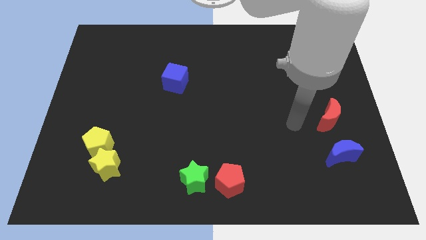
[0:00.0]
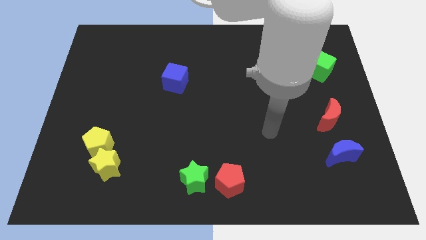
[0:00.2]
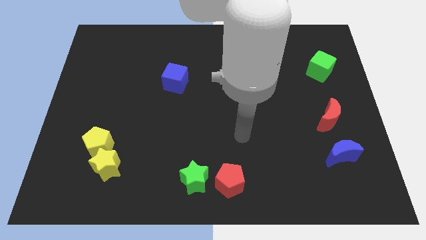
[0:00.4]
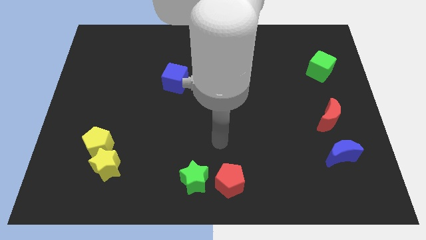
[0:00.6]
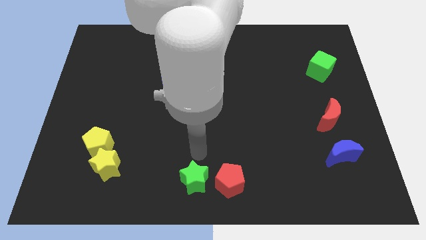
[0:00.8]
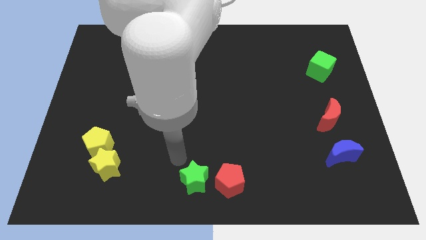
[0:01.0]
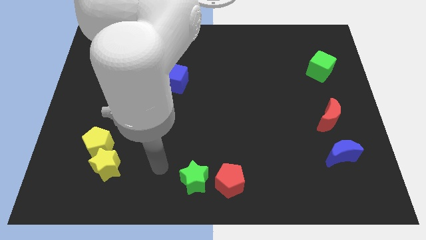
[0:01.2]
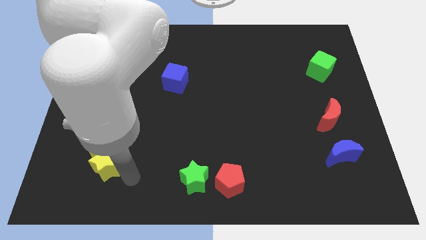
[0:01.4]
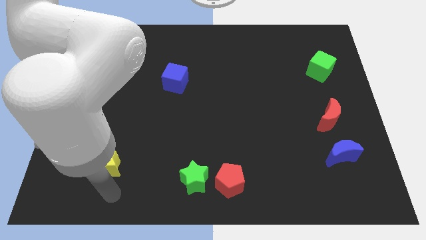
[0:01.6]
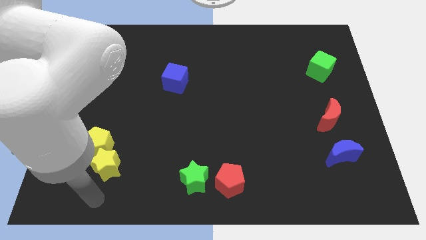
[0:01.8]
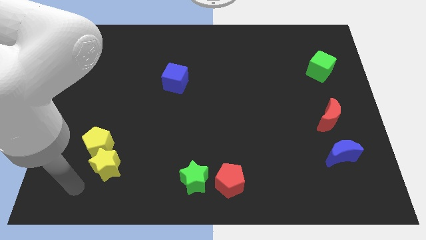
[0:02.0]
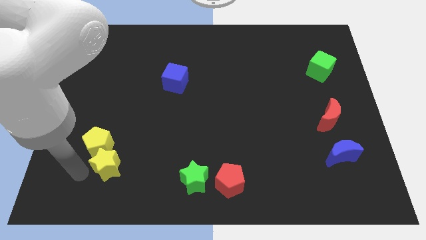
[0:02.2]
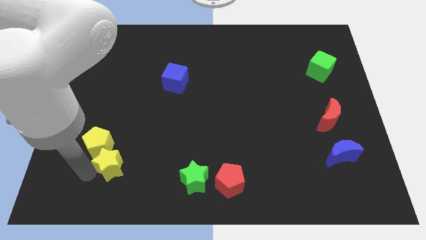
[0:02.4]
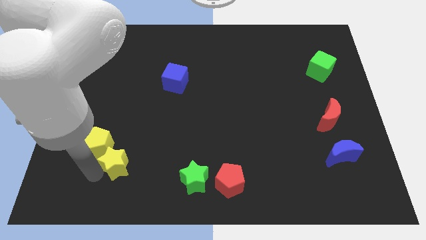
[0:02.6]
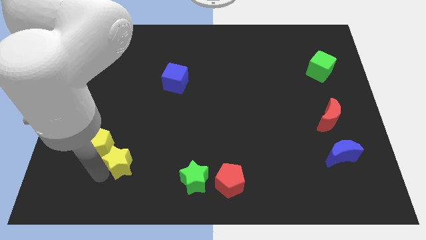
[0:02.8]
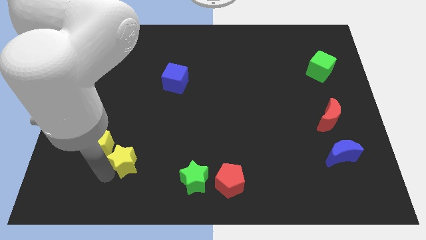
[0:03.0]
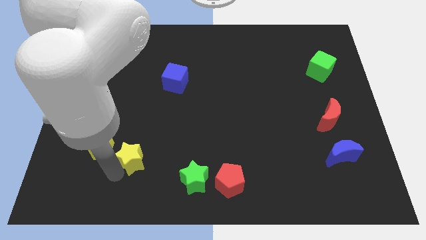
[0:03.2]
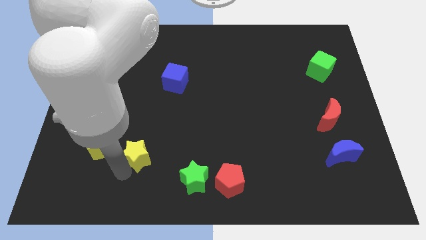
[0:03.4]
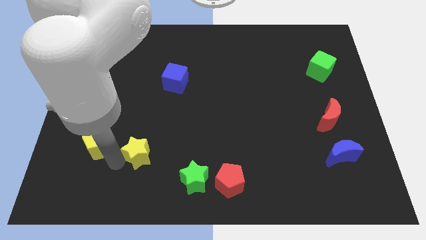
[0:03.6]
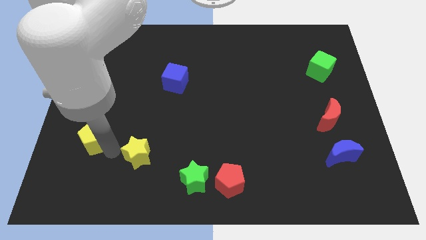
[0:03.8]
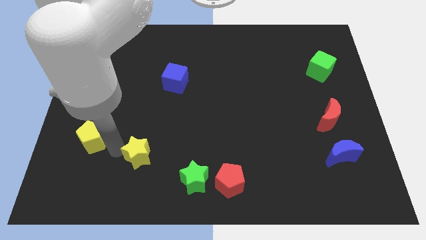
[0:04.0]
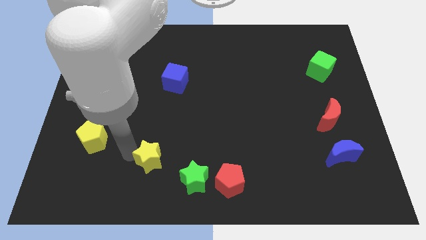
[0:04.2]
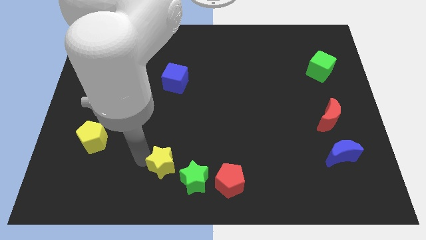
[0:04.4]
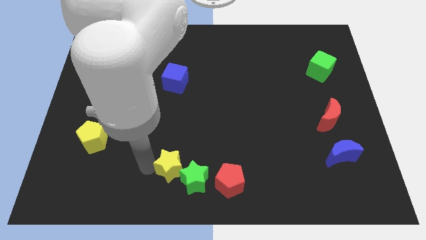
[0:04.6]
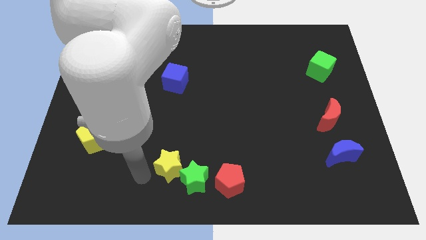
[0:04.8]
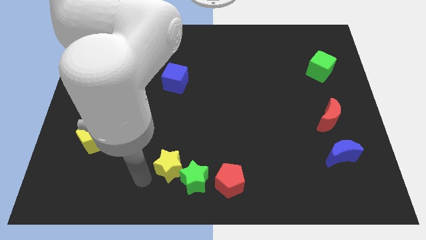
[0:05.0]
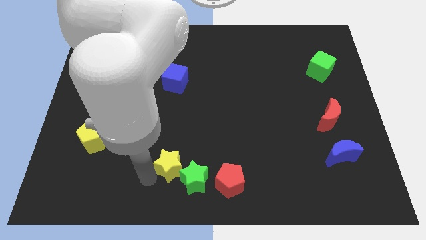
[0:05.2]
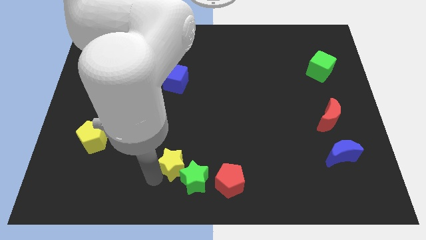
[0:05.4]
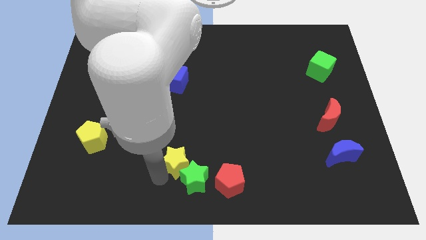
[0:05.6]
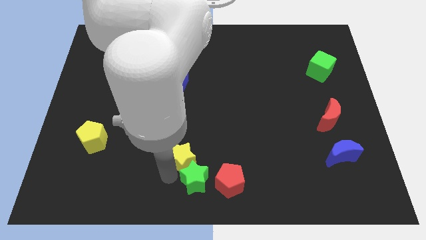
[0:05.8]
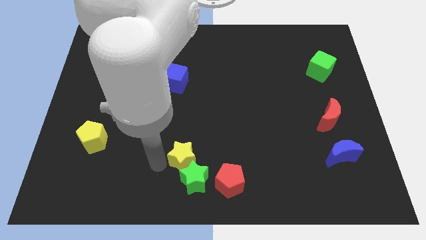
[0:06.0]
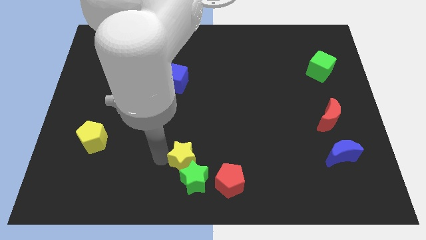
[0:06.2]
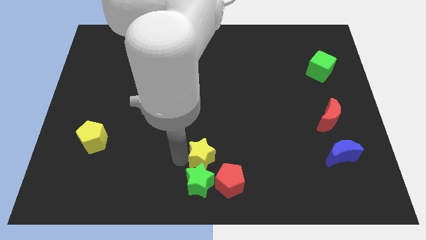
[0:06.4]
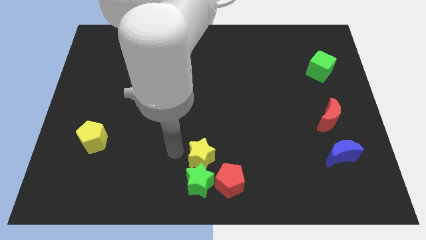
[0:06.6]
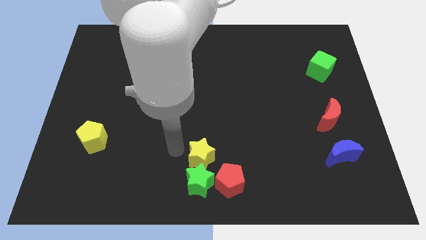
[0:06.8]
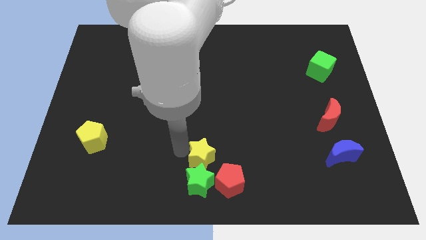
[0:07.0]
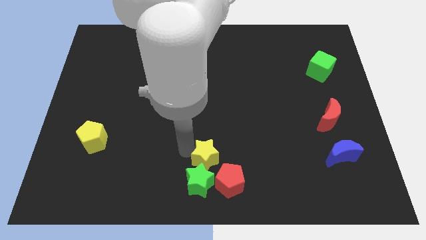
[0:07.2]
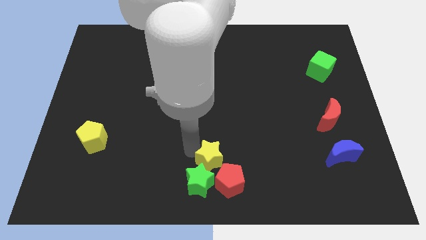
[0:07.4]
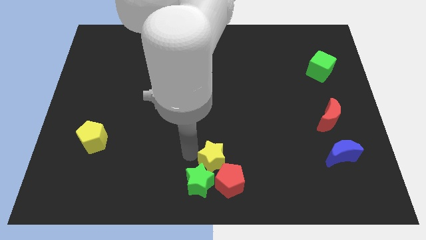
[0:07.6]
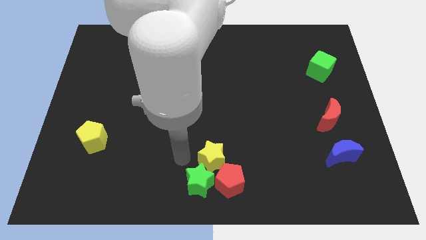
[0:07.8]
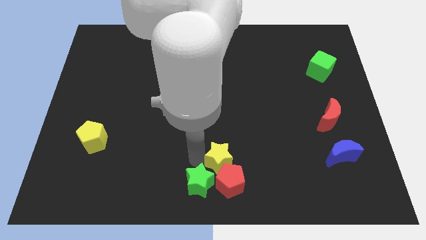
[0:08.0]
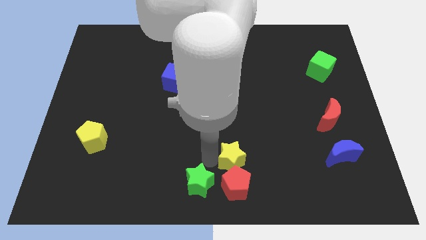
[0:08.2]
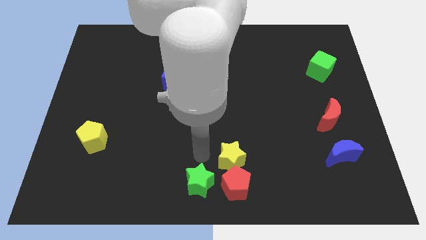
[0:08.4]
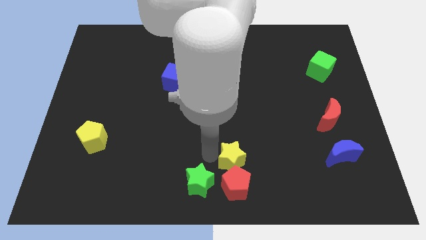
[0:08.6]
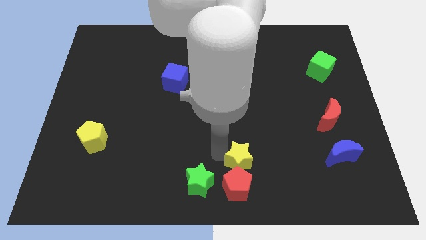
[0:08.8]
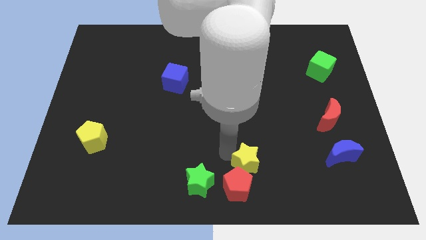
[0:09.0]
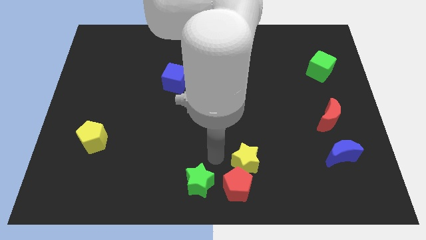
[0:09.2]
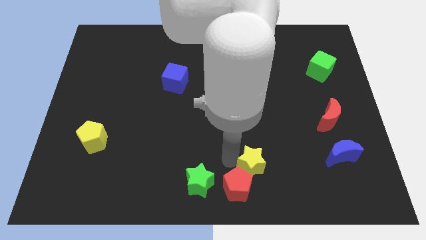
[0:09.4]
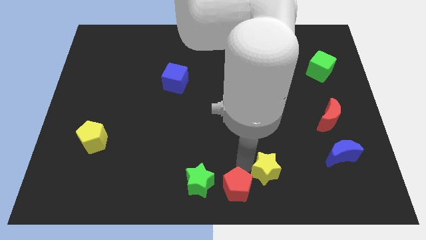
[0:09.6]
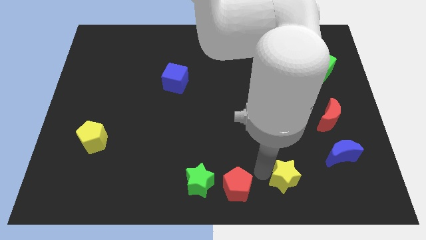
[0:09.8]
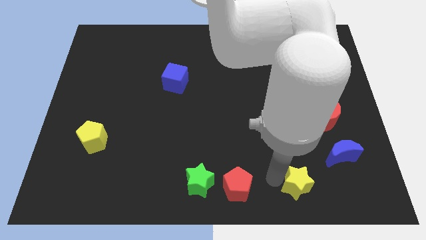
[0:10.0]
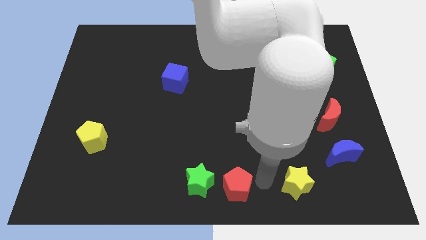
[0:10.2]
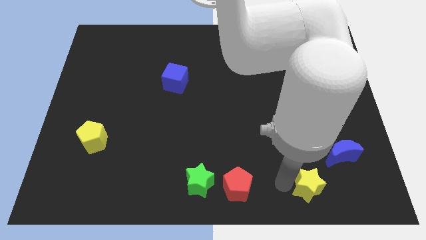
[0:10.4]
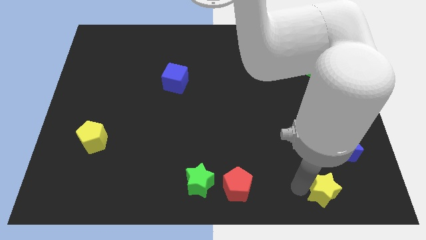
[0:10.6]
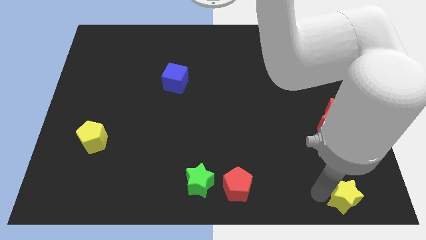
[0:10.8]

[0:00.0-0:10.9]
slide the yellow star to the bottom right of the board
